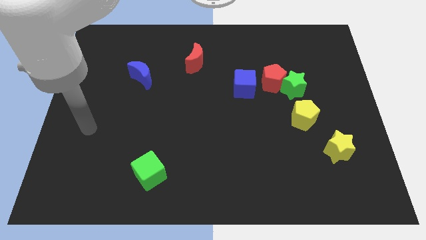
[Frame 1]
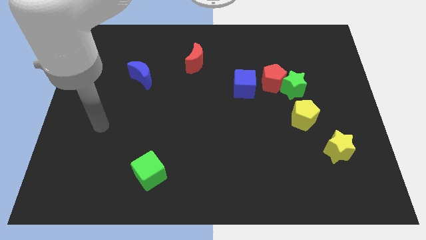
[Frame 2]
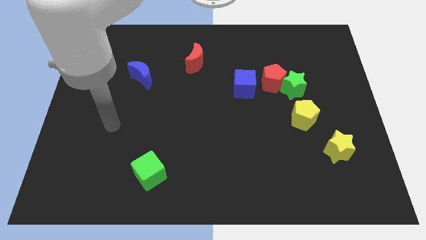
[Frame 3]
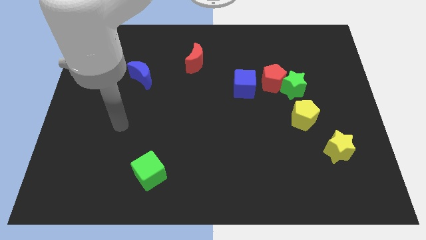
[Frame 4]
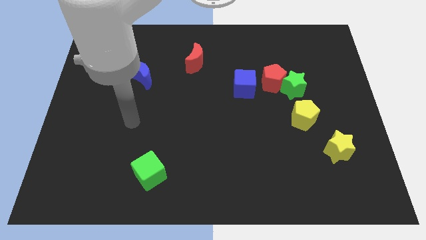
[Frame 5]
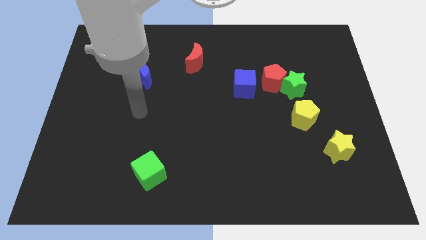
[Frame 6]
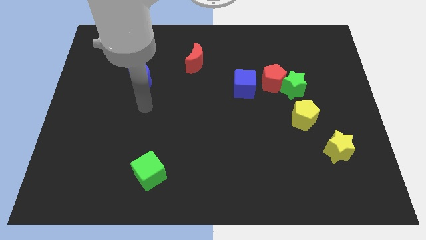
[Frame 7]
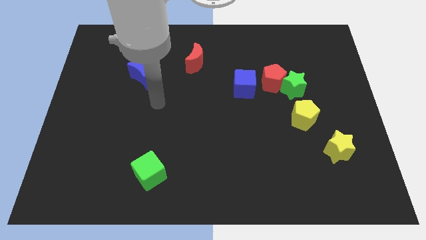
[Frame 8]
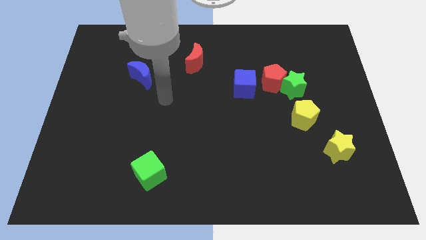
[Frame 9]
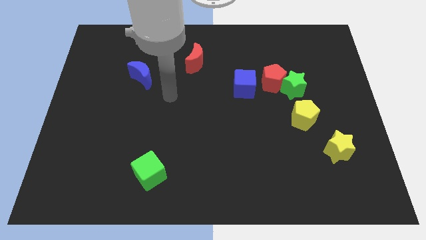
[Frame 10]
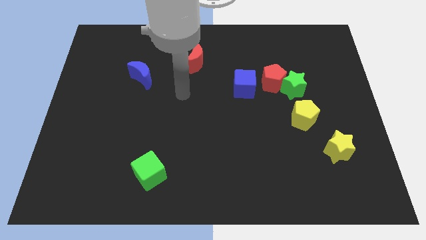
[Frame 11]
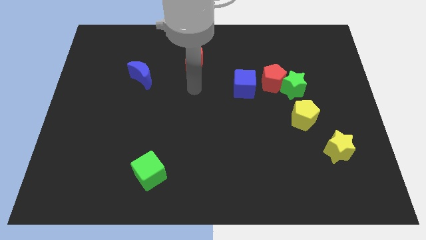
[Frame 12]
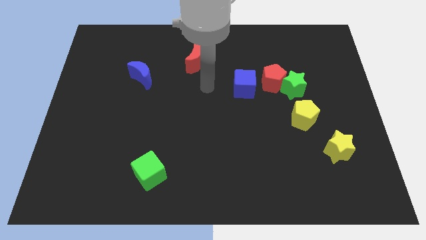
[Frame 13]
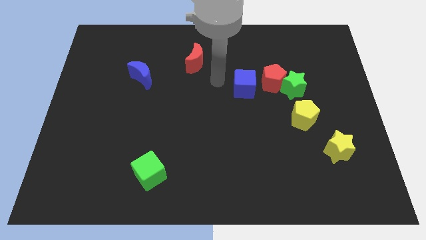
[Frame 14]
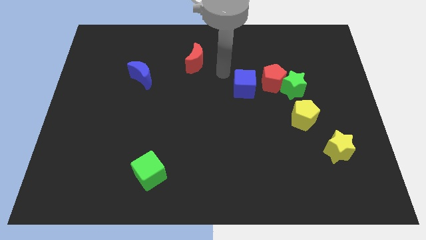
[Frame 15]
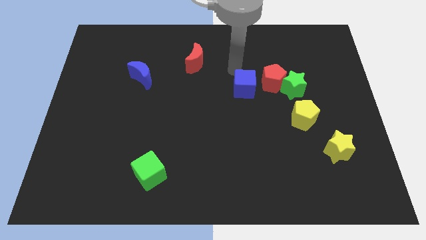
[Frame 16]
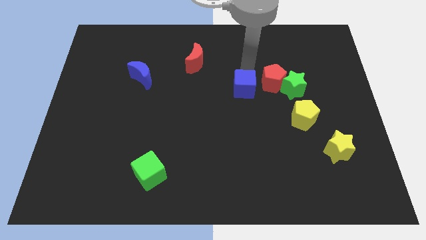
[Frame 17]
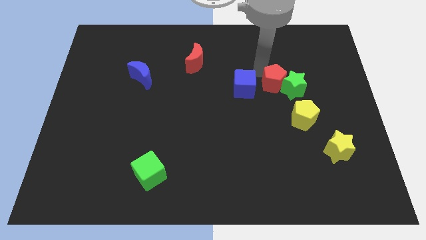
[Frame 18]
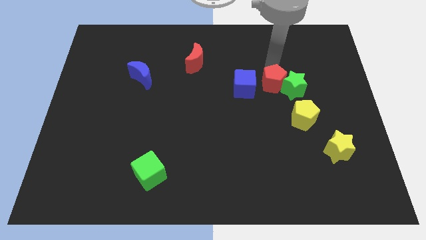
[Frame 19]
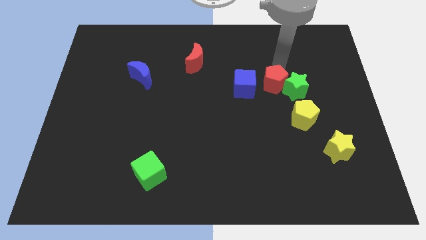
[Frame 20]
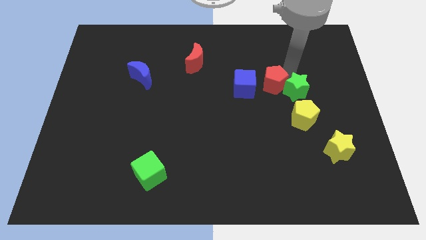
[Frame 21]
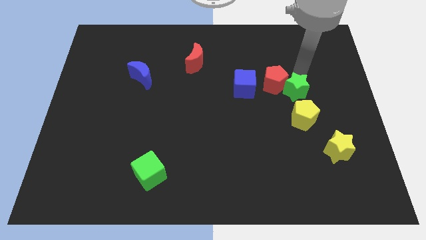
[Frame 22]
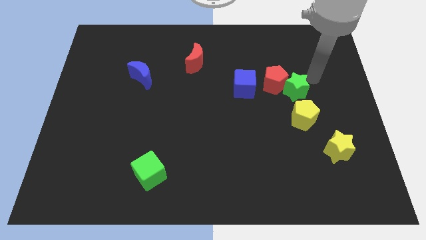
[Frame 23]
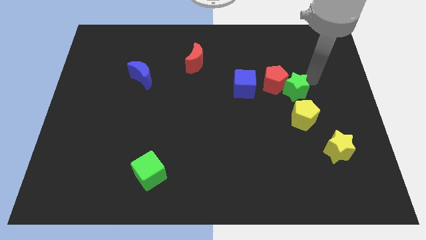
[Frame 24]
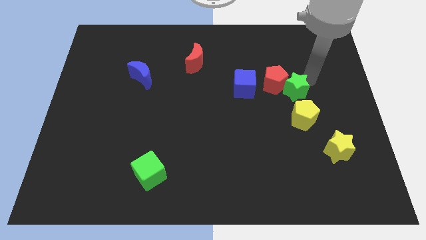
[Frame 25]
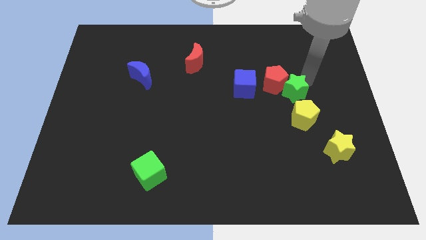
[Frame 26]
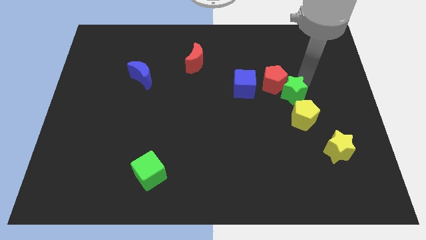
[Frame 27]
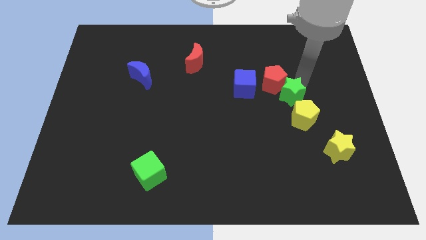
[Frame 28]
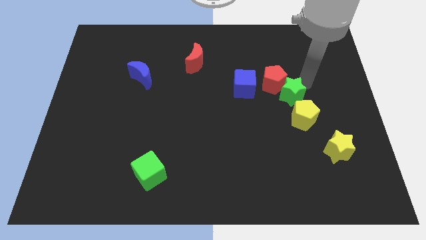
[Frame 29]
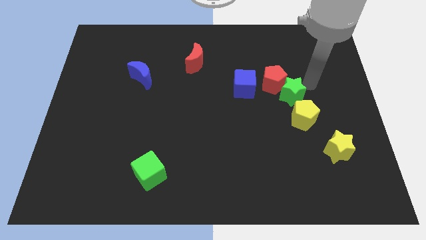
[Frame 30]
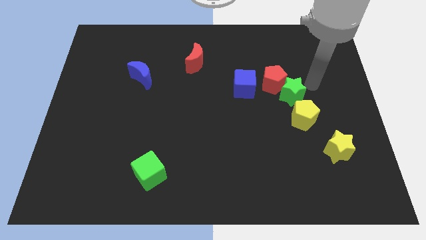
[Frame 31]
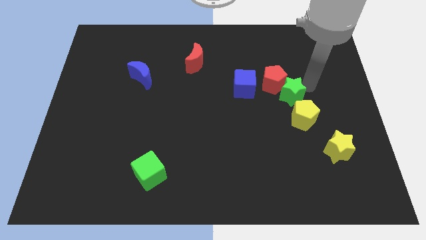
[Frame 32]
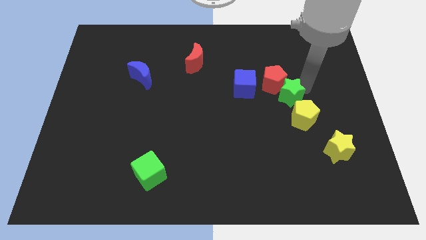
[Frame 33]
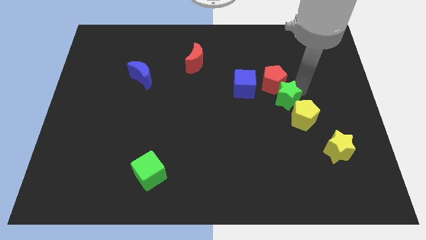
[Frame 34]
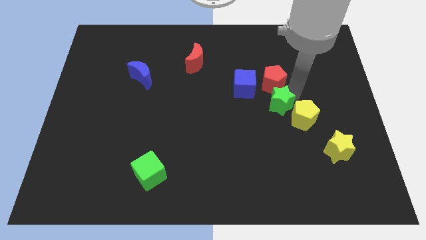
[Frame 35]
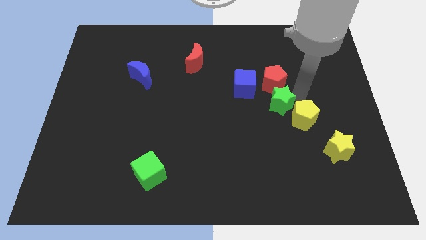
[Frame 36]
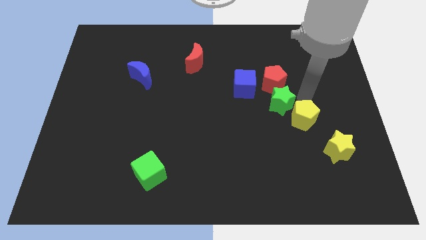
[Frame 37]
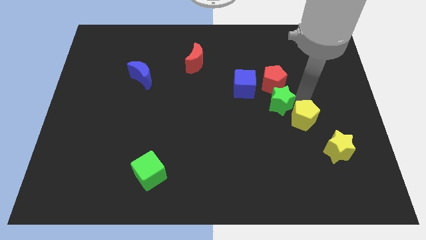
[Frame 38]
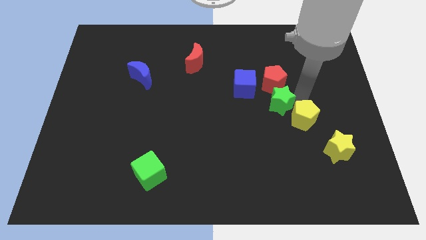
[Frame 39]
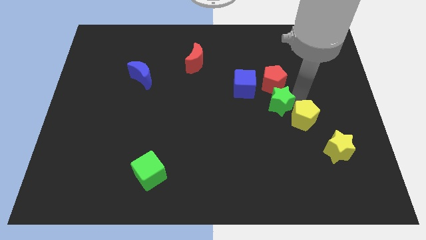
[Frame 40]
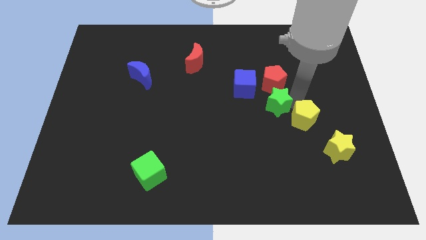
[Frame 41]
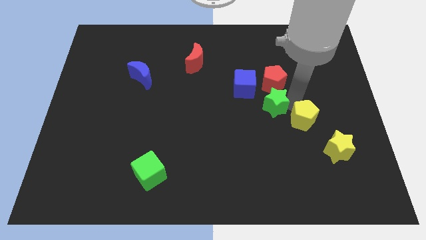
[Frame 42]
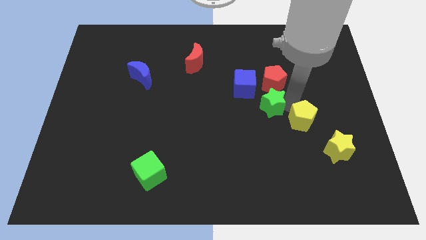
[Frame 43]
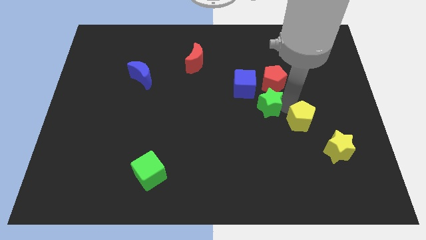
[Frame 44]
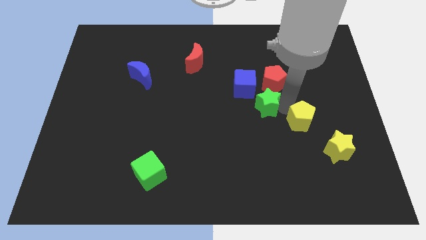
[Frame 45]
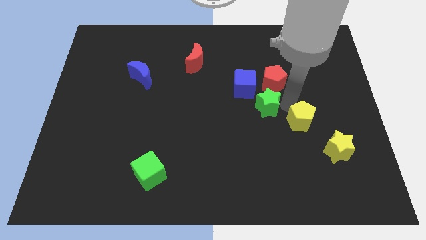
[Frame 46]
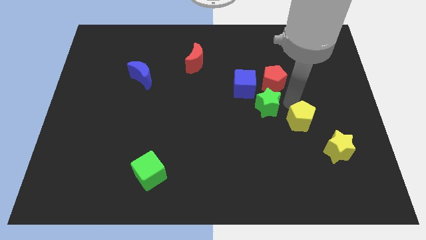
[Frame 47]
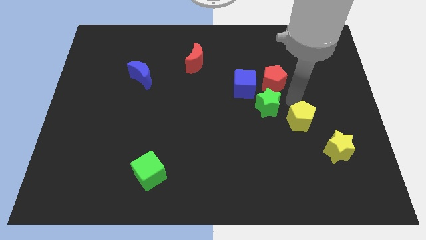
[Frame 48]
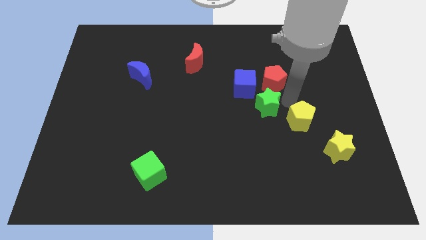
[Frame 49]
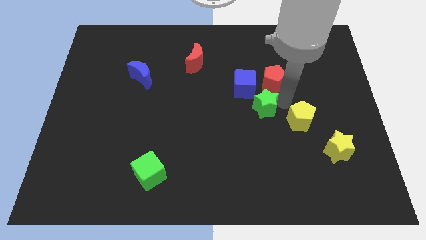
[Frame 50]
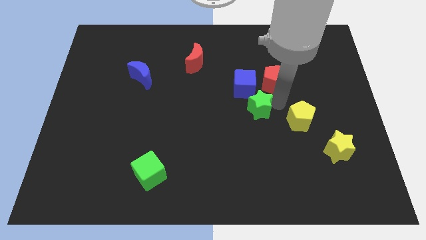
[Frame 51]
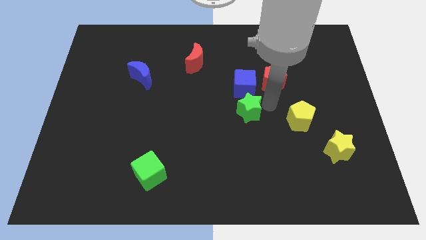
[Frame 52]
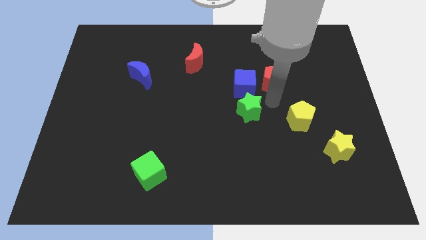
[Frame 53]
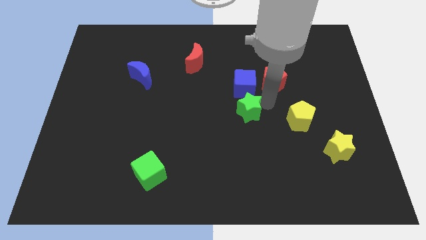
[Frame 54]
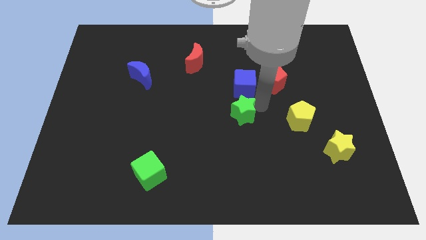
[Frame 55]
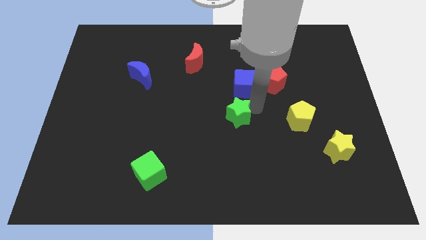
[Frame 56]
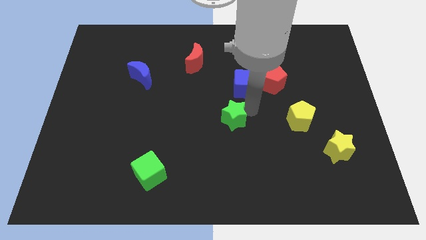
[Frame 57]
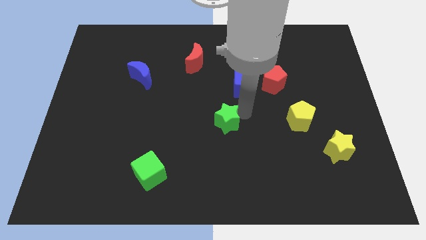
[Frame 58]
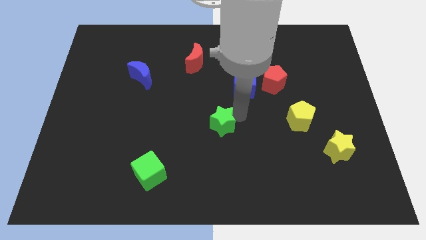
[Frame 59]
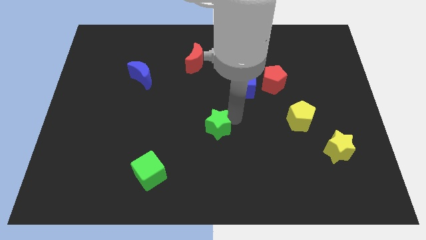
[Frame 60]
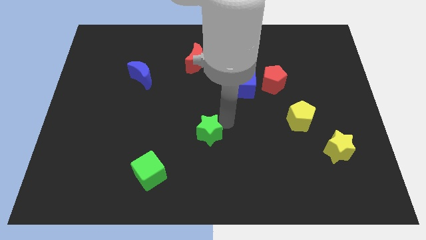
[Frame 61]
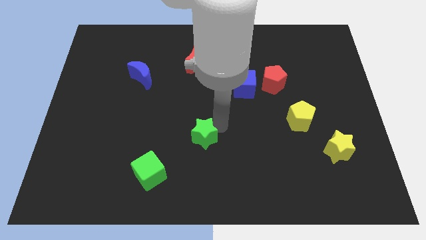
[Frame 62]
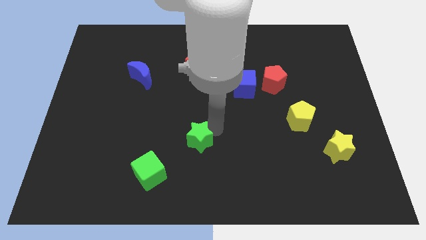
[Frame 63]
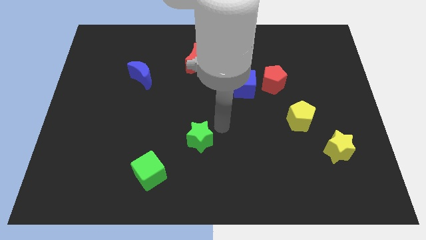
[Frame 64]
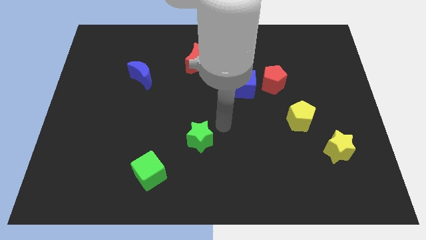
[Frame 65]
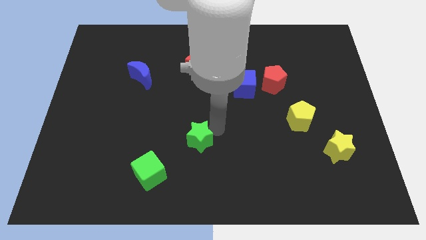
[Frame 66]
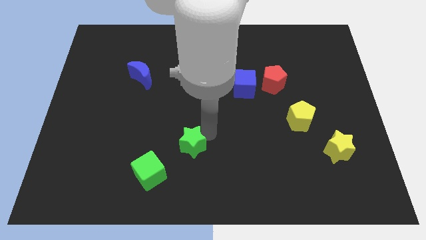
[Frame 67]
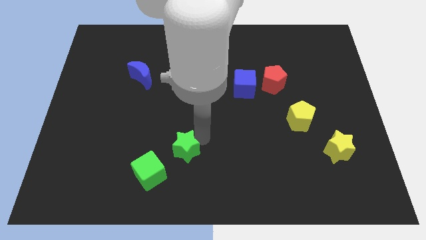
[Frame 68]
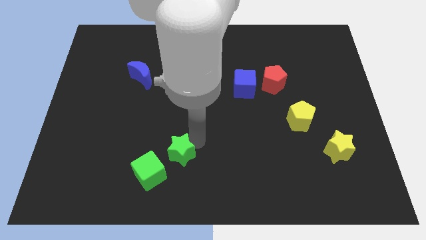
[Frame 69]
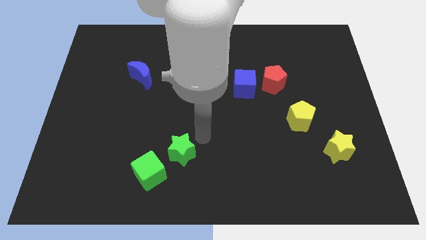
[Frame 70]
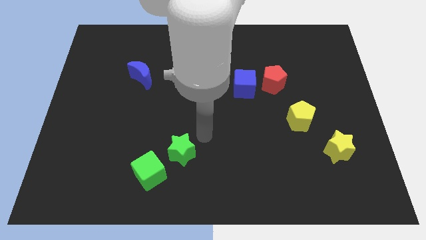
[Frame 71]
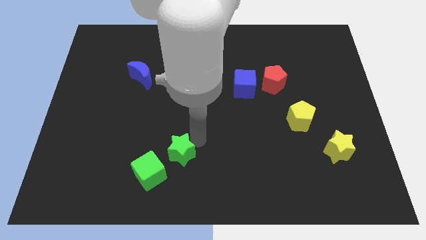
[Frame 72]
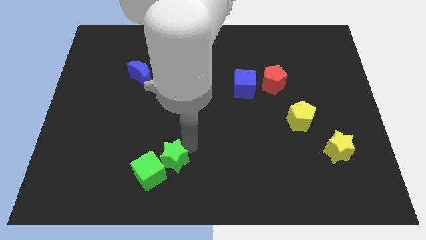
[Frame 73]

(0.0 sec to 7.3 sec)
slide the green star close to the green cube

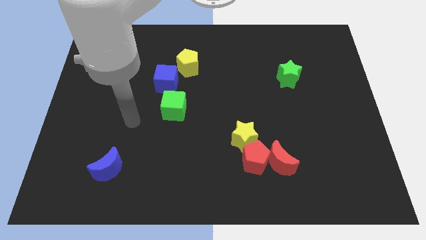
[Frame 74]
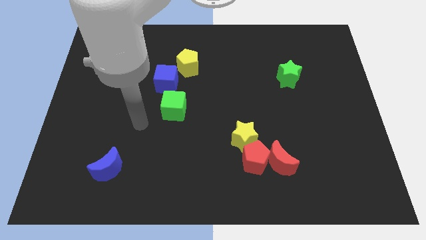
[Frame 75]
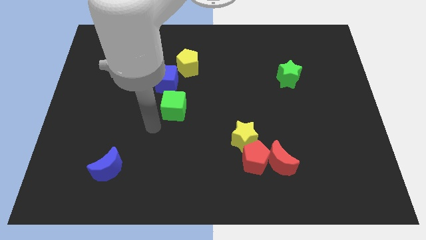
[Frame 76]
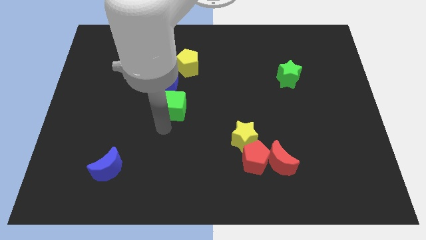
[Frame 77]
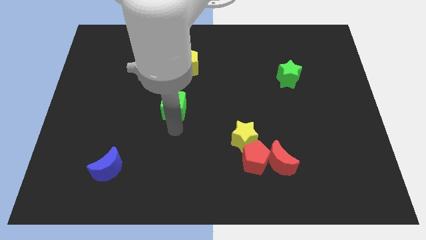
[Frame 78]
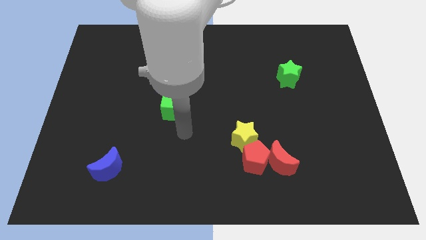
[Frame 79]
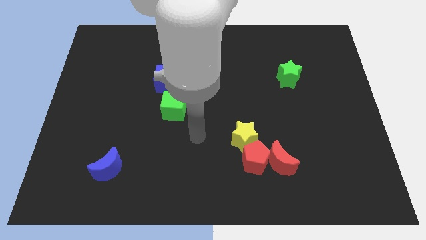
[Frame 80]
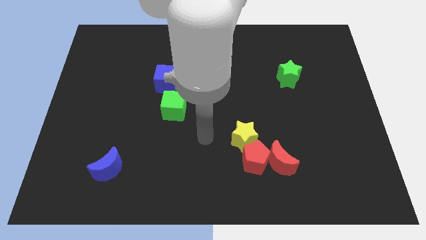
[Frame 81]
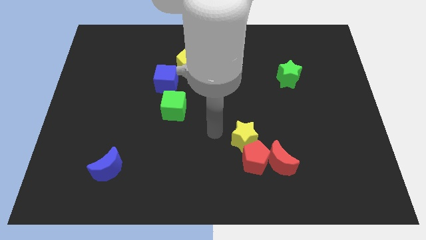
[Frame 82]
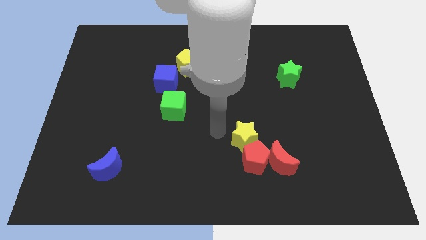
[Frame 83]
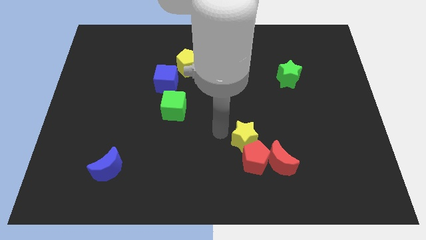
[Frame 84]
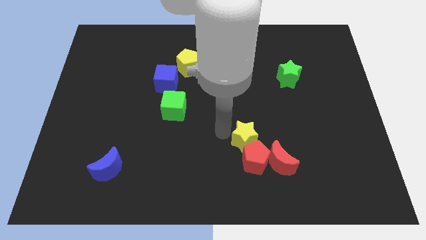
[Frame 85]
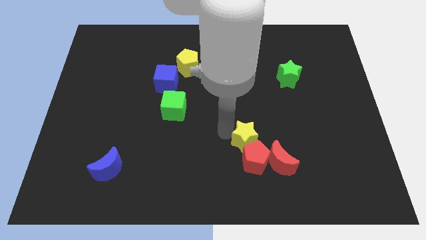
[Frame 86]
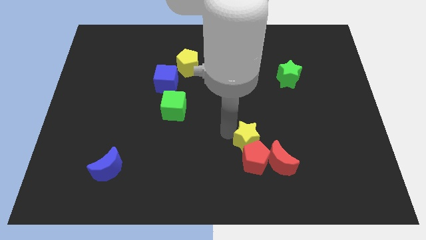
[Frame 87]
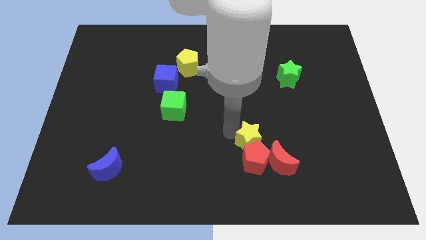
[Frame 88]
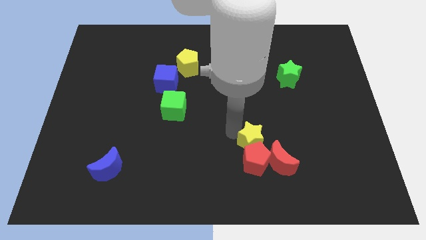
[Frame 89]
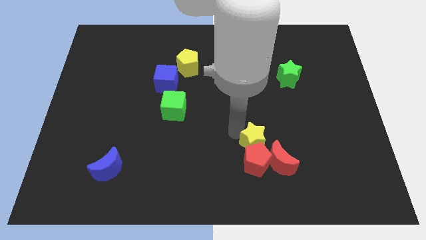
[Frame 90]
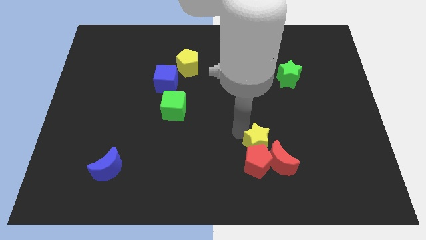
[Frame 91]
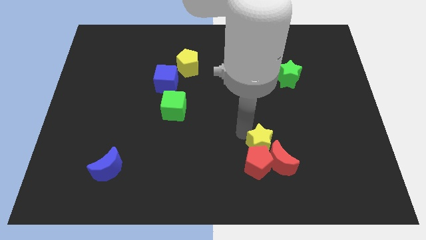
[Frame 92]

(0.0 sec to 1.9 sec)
push the yellow star next to the red moon
